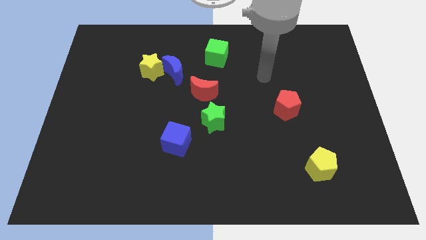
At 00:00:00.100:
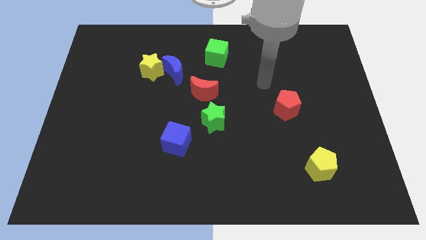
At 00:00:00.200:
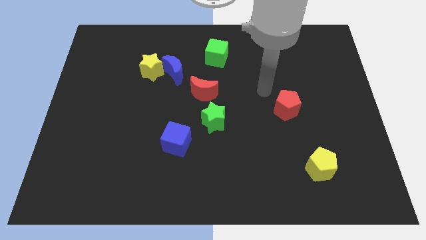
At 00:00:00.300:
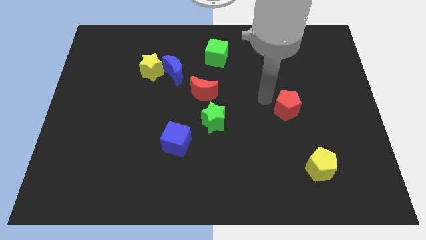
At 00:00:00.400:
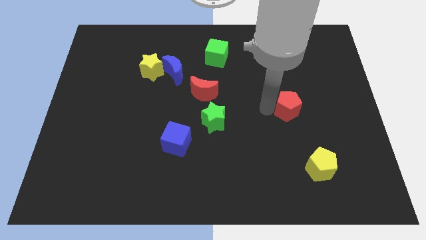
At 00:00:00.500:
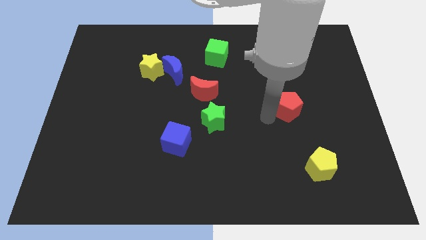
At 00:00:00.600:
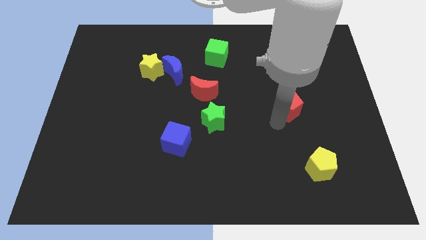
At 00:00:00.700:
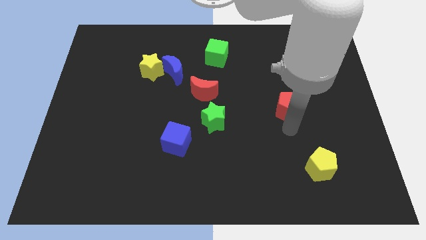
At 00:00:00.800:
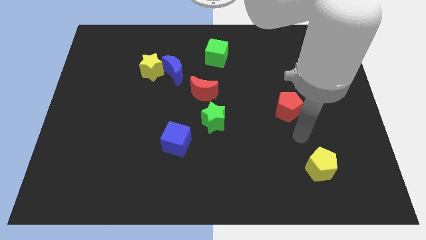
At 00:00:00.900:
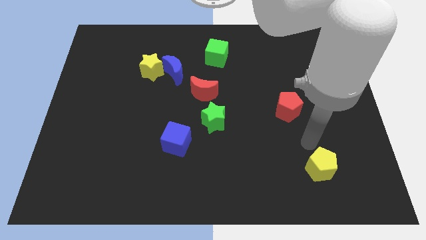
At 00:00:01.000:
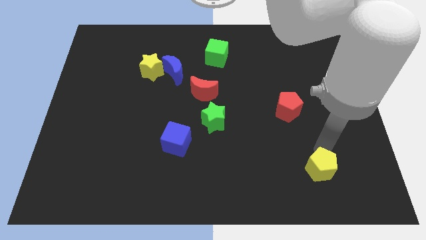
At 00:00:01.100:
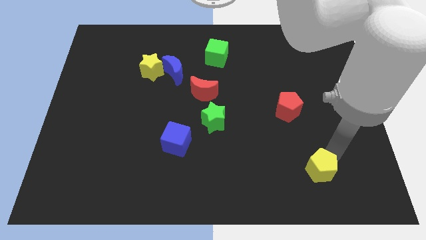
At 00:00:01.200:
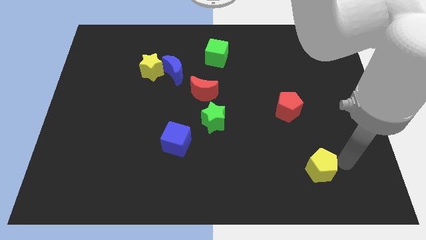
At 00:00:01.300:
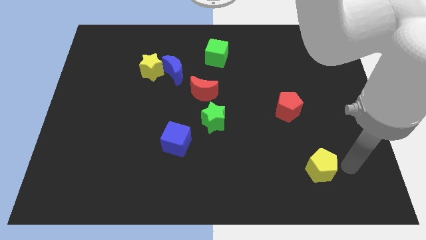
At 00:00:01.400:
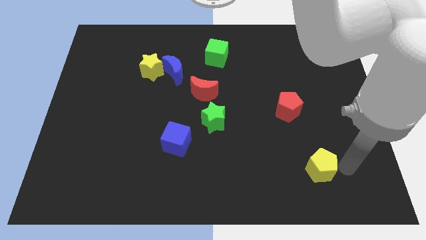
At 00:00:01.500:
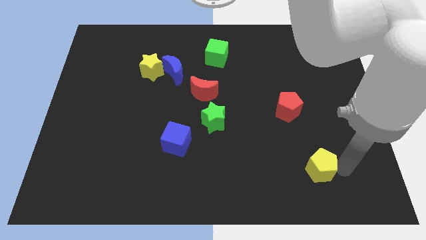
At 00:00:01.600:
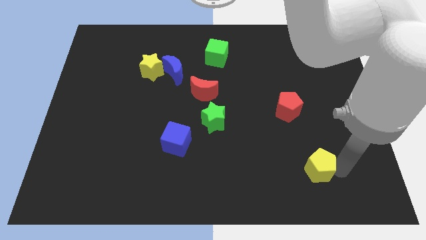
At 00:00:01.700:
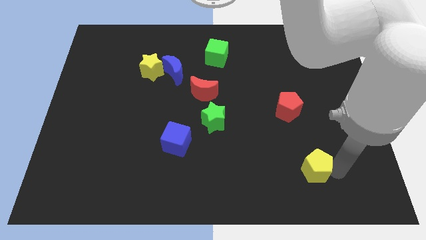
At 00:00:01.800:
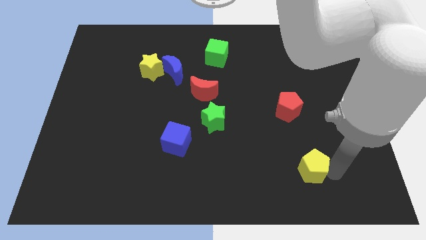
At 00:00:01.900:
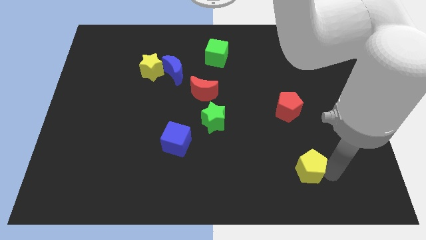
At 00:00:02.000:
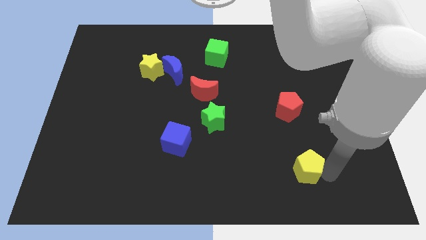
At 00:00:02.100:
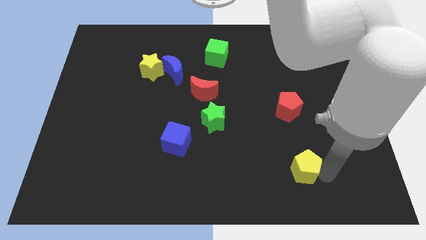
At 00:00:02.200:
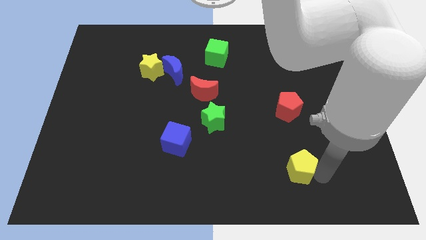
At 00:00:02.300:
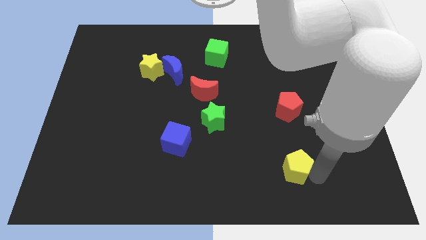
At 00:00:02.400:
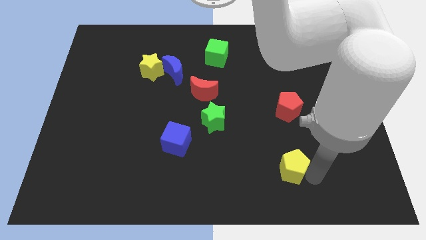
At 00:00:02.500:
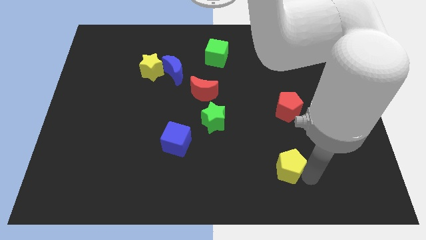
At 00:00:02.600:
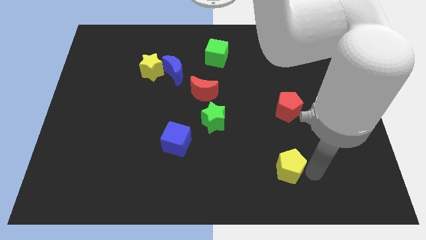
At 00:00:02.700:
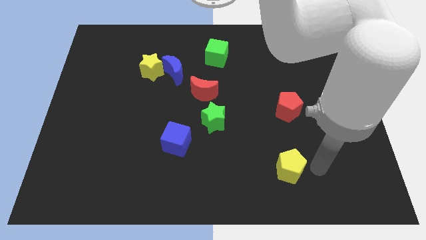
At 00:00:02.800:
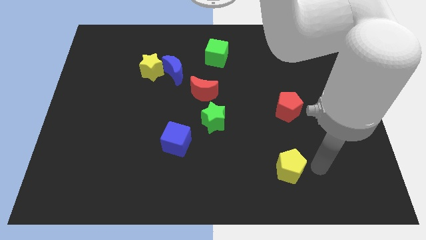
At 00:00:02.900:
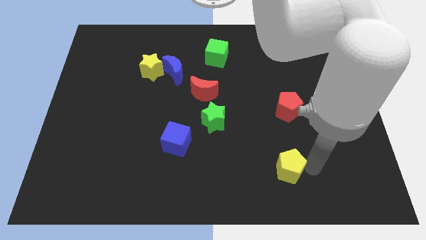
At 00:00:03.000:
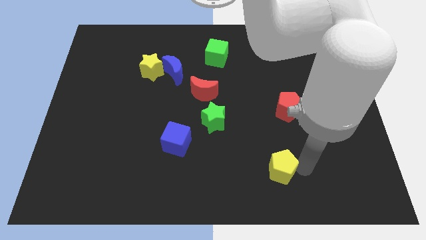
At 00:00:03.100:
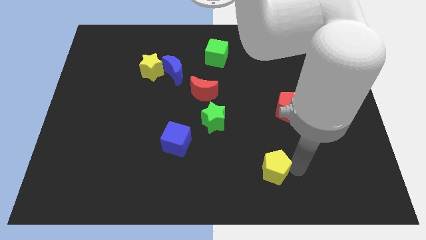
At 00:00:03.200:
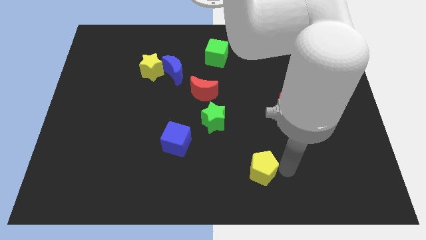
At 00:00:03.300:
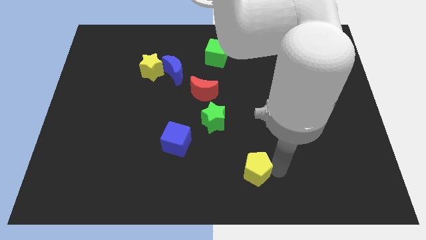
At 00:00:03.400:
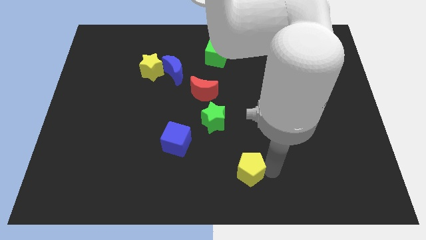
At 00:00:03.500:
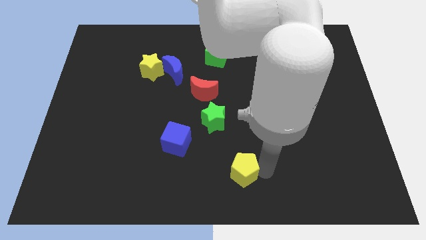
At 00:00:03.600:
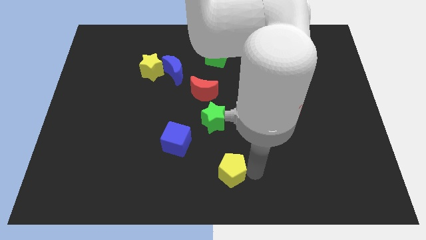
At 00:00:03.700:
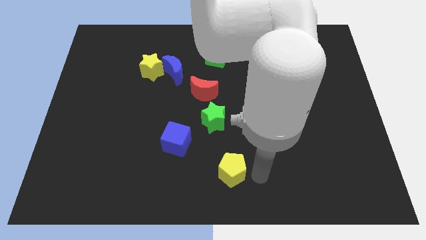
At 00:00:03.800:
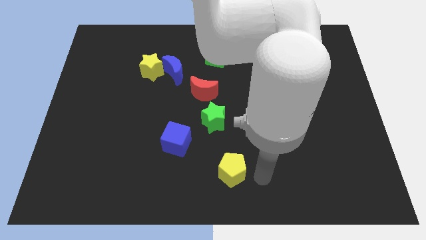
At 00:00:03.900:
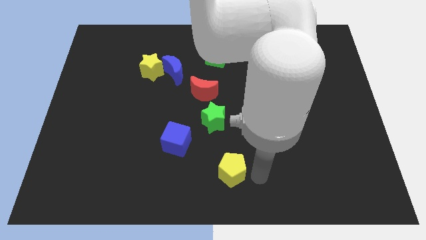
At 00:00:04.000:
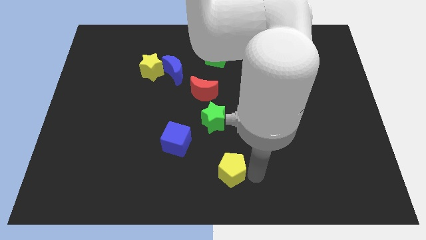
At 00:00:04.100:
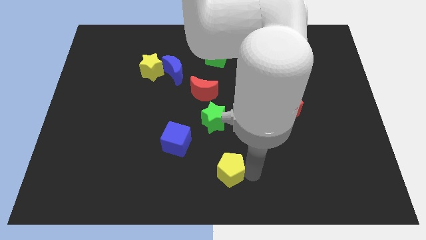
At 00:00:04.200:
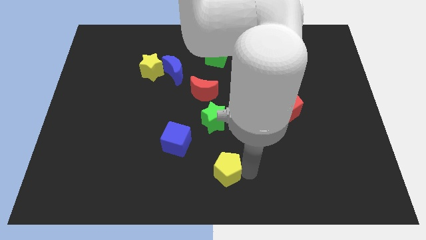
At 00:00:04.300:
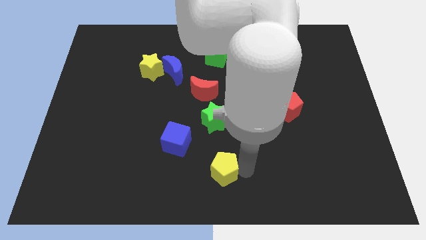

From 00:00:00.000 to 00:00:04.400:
push the yellow pentagon to the left

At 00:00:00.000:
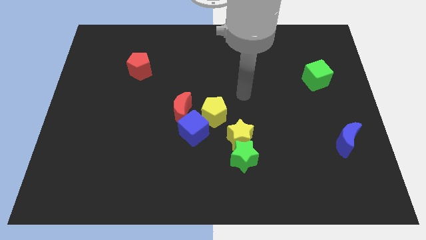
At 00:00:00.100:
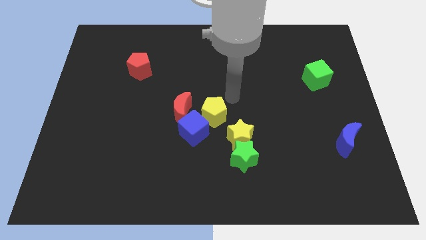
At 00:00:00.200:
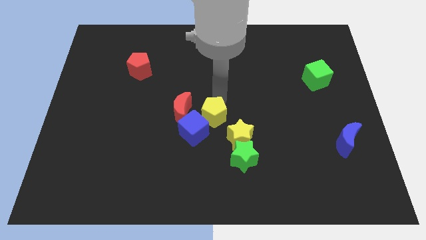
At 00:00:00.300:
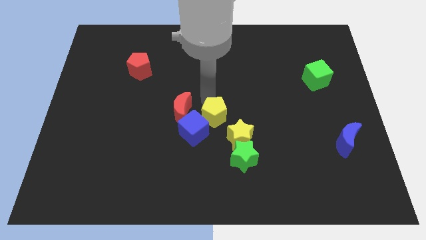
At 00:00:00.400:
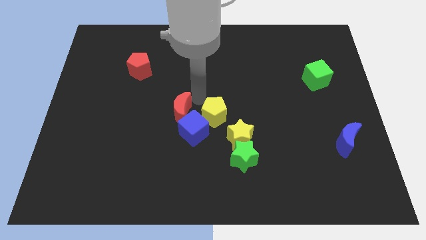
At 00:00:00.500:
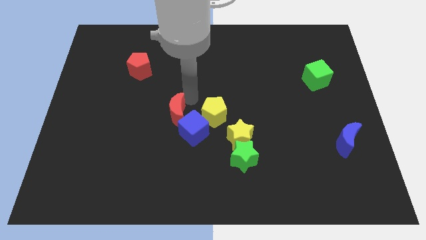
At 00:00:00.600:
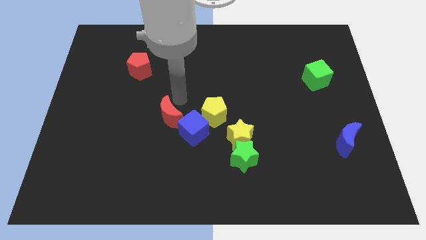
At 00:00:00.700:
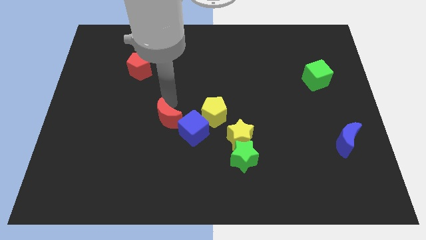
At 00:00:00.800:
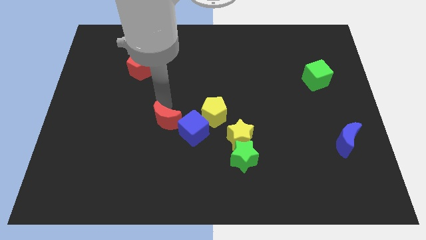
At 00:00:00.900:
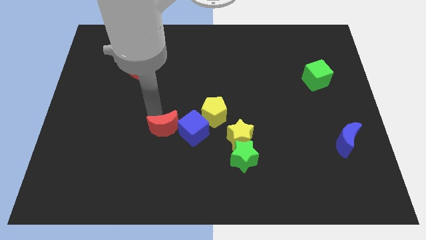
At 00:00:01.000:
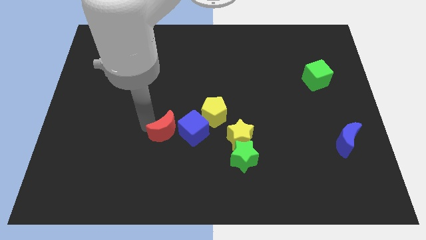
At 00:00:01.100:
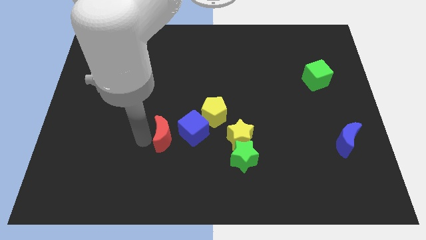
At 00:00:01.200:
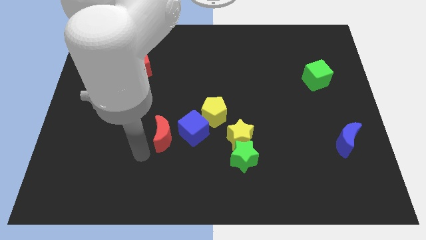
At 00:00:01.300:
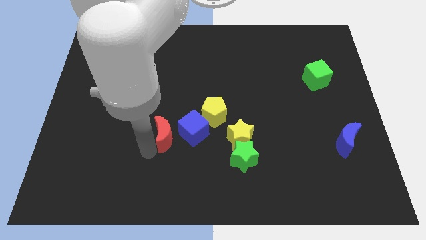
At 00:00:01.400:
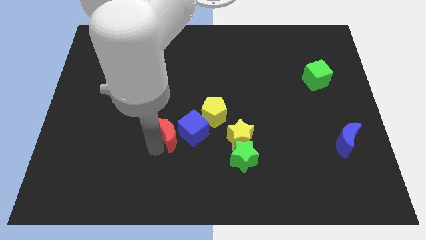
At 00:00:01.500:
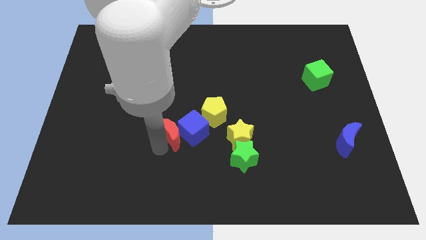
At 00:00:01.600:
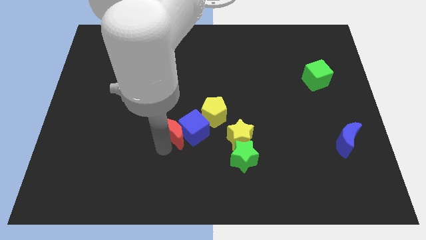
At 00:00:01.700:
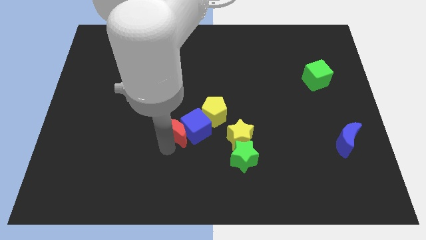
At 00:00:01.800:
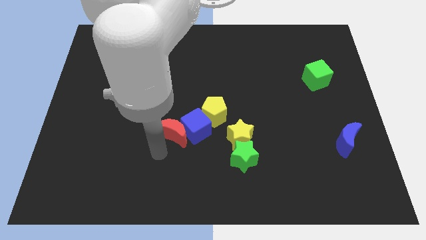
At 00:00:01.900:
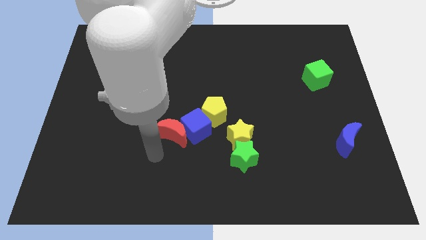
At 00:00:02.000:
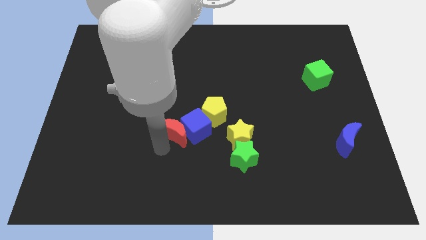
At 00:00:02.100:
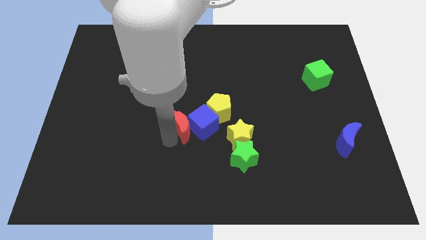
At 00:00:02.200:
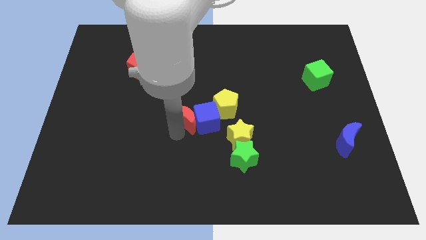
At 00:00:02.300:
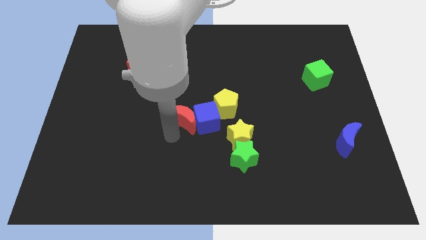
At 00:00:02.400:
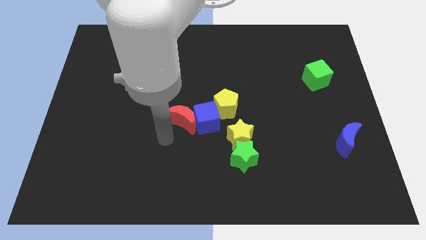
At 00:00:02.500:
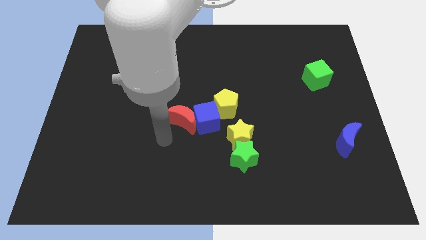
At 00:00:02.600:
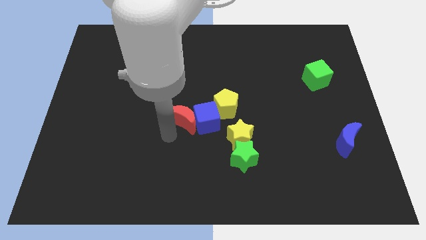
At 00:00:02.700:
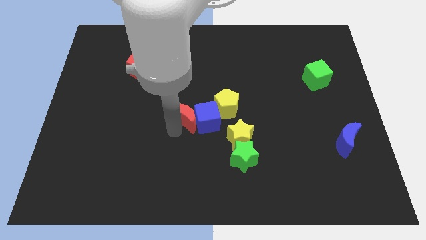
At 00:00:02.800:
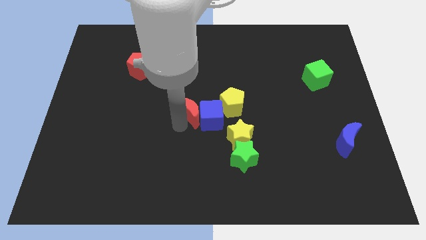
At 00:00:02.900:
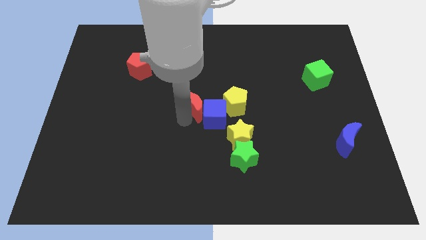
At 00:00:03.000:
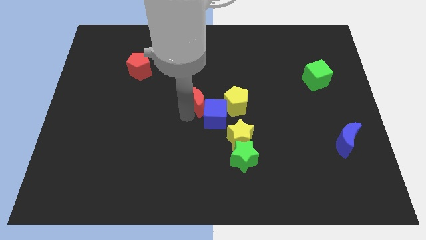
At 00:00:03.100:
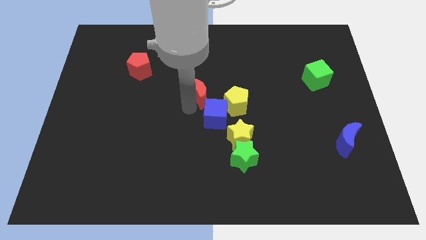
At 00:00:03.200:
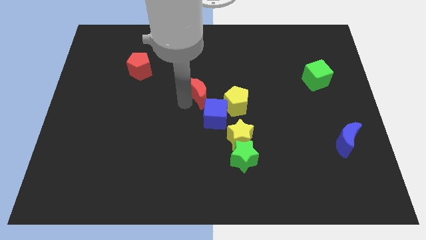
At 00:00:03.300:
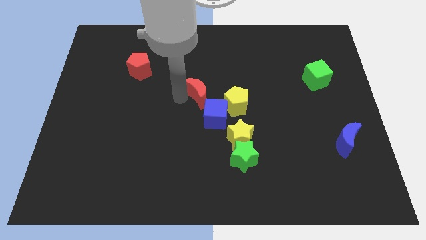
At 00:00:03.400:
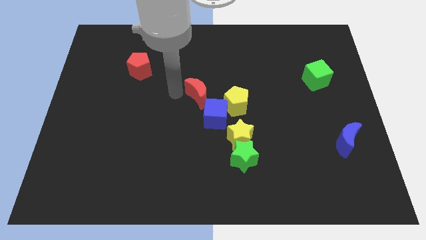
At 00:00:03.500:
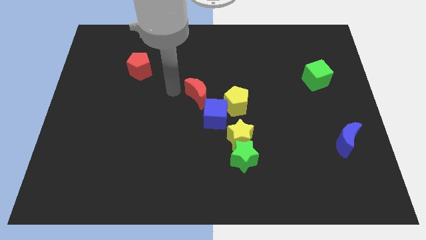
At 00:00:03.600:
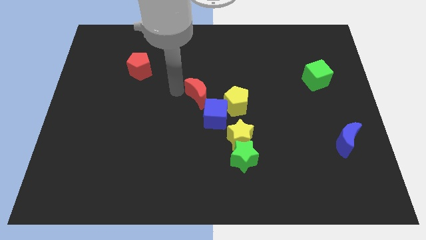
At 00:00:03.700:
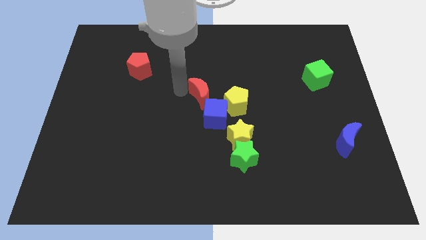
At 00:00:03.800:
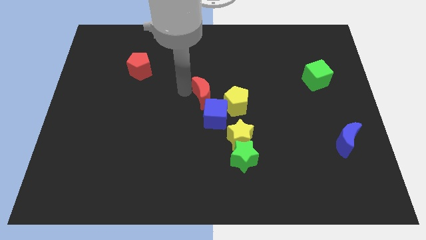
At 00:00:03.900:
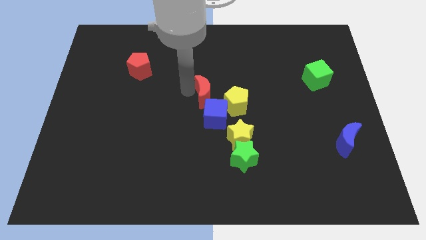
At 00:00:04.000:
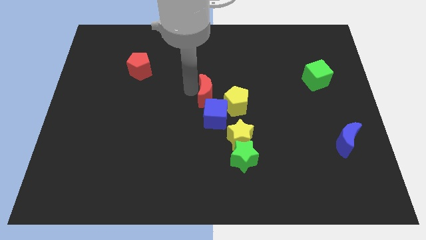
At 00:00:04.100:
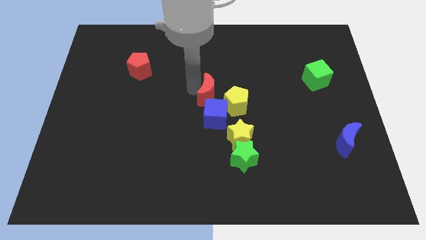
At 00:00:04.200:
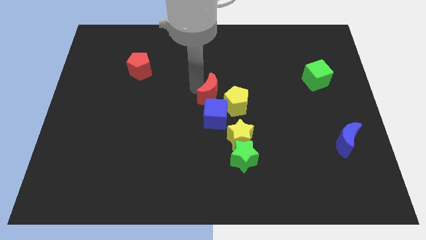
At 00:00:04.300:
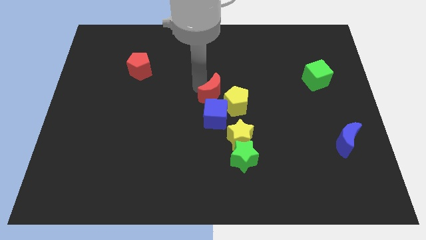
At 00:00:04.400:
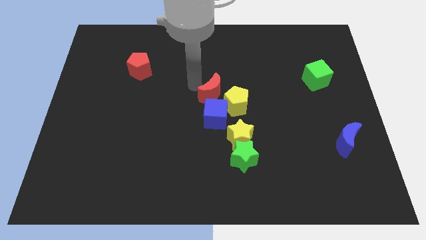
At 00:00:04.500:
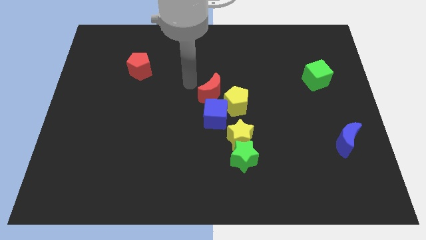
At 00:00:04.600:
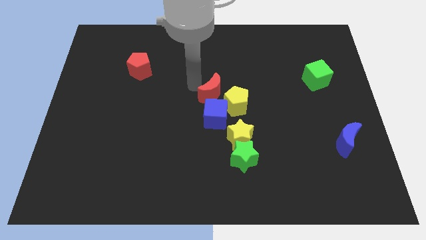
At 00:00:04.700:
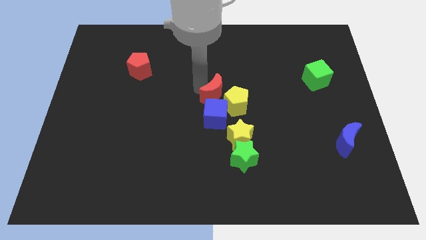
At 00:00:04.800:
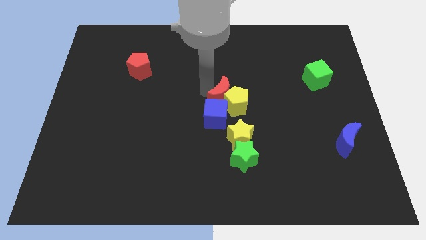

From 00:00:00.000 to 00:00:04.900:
slide the red moon slightly to the right
